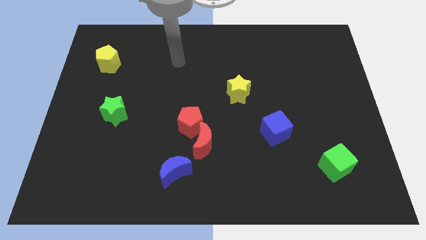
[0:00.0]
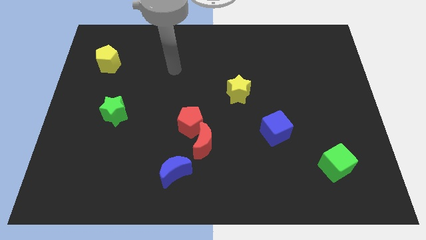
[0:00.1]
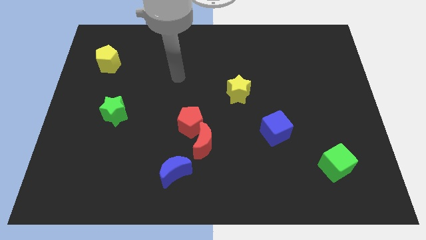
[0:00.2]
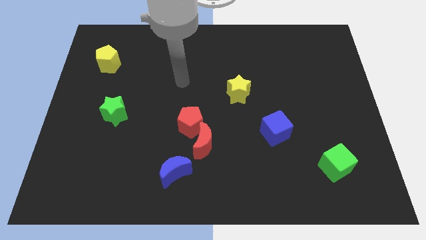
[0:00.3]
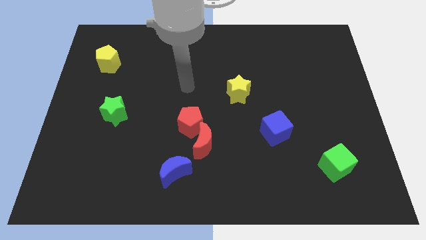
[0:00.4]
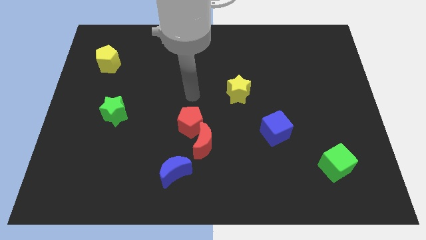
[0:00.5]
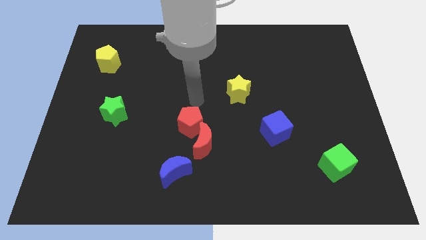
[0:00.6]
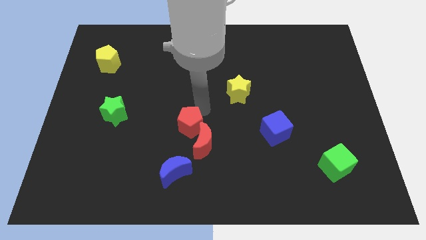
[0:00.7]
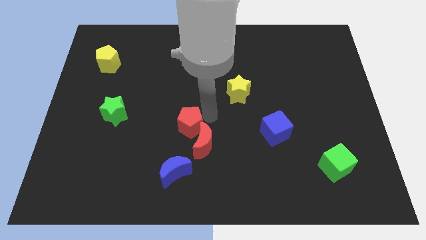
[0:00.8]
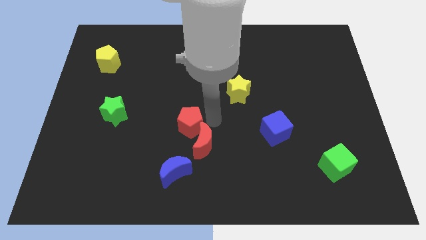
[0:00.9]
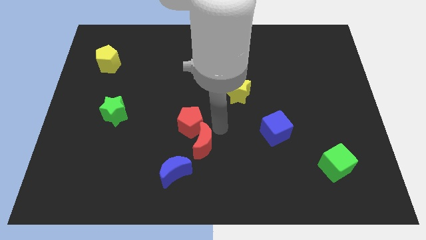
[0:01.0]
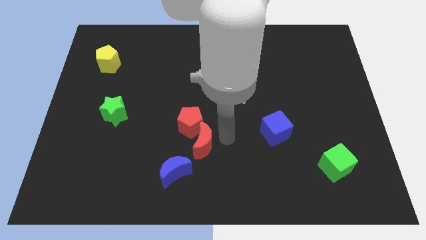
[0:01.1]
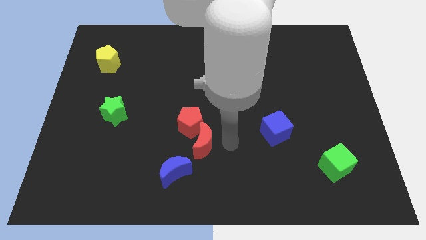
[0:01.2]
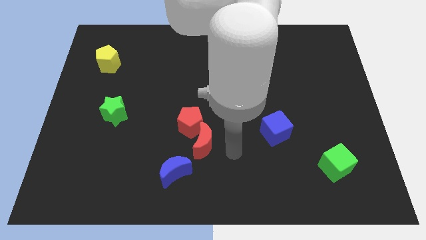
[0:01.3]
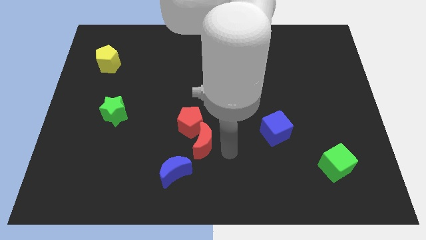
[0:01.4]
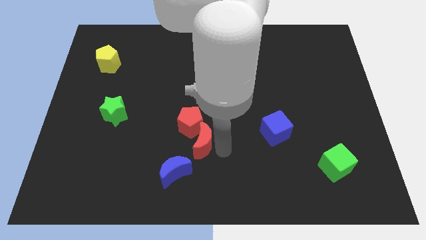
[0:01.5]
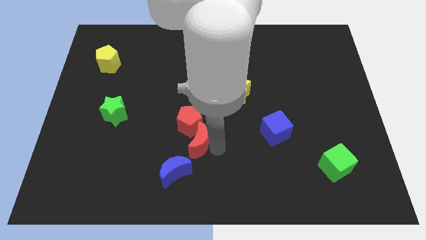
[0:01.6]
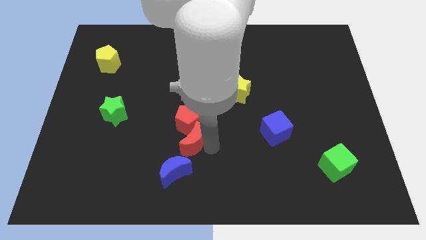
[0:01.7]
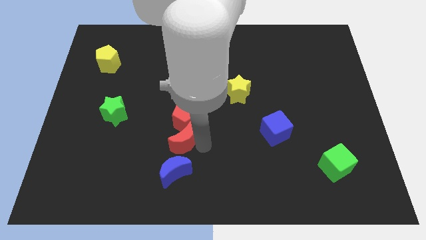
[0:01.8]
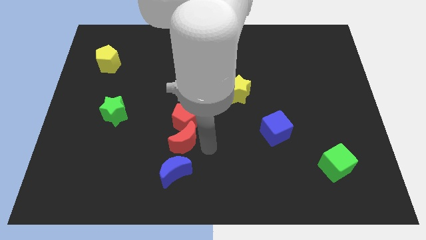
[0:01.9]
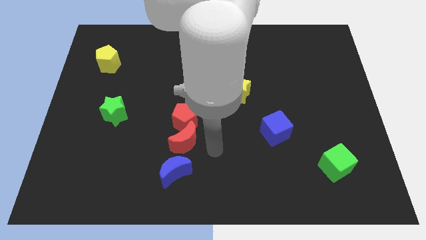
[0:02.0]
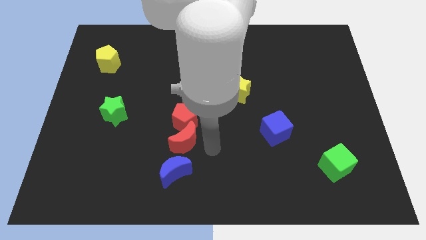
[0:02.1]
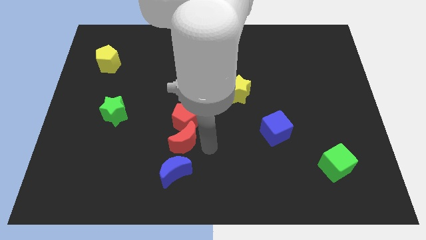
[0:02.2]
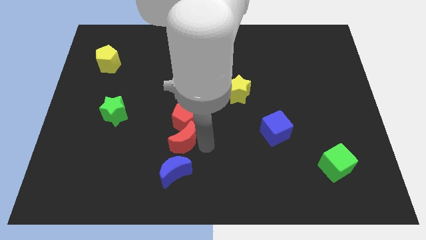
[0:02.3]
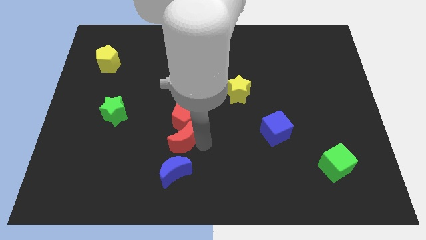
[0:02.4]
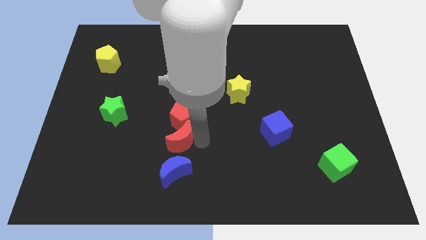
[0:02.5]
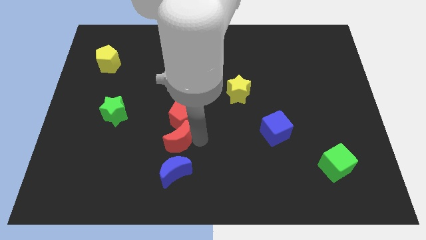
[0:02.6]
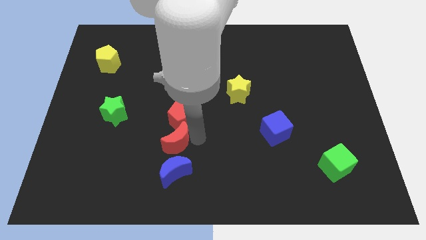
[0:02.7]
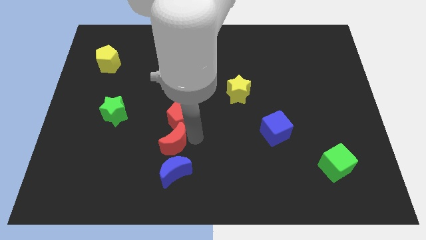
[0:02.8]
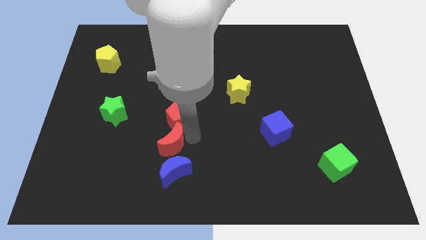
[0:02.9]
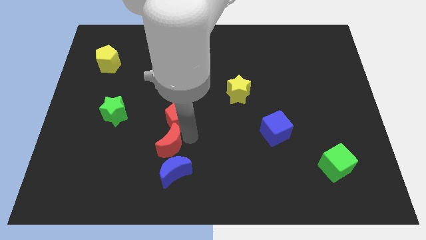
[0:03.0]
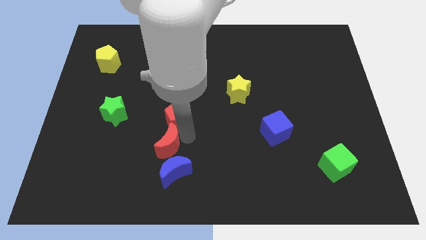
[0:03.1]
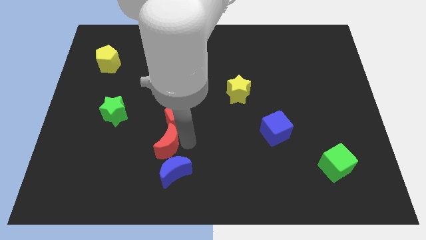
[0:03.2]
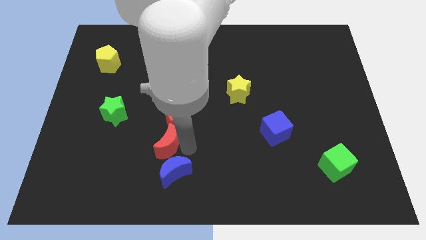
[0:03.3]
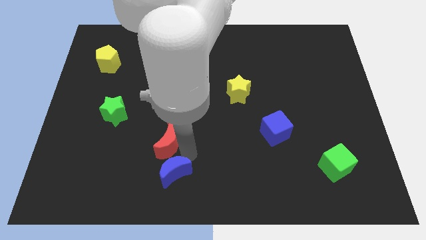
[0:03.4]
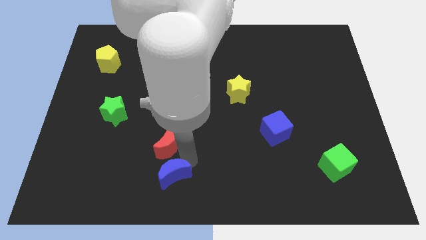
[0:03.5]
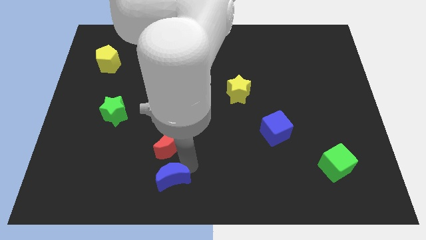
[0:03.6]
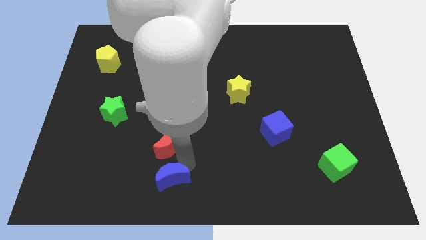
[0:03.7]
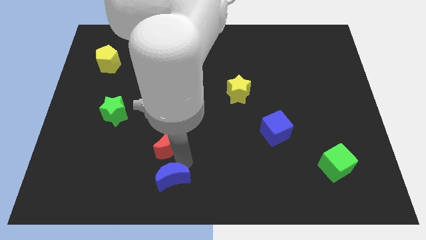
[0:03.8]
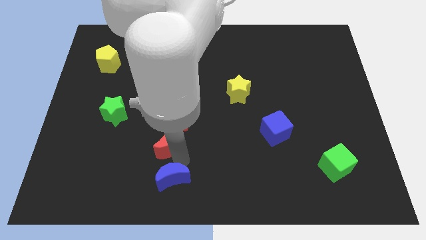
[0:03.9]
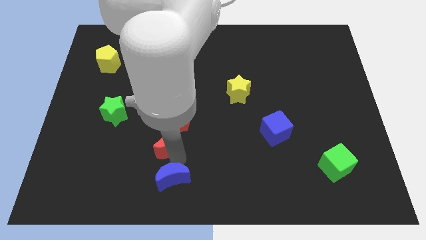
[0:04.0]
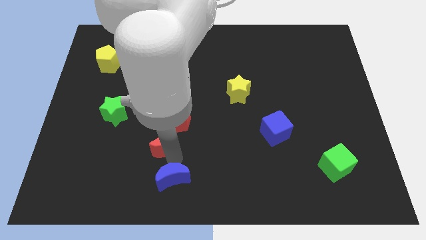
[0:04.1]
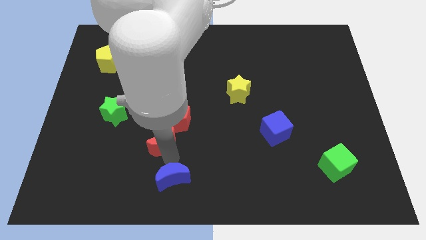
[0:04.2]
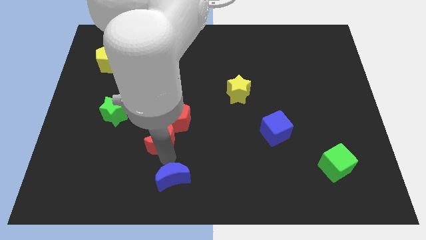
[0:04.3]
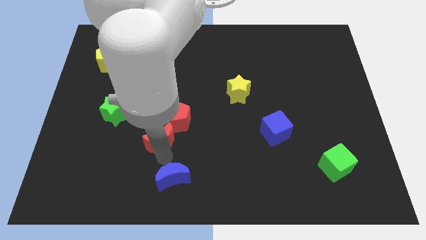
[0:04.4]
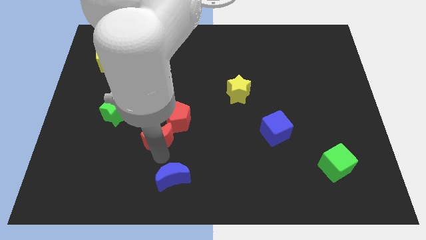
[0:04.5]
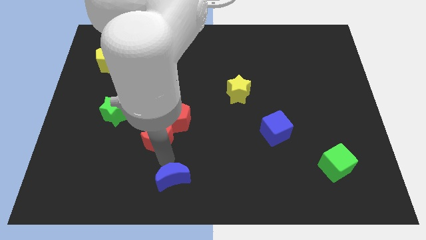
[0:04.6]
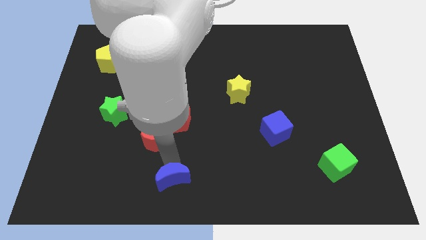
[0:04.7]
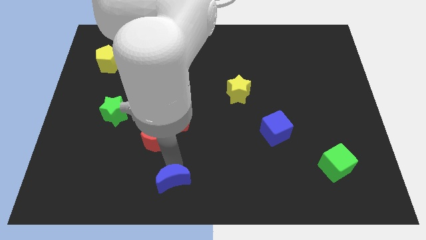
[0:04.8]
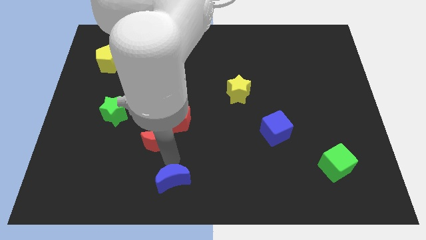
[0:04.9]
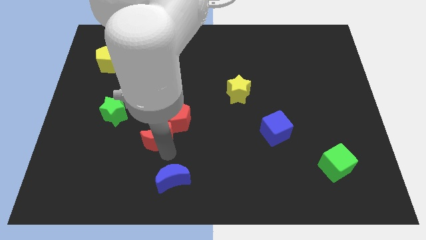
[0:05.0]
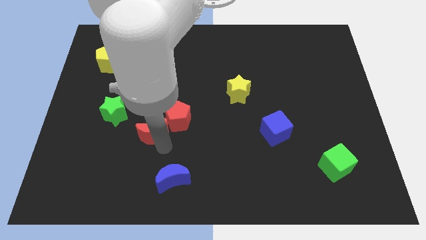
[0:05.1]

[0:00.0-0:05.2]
move the red moon a little bit diagonally upwards and to the left

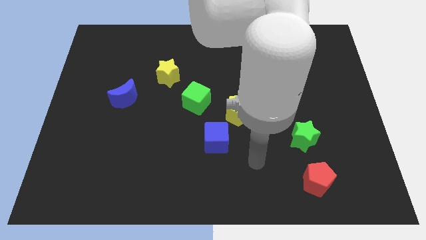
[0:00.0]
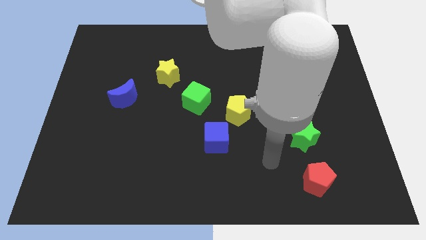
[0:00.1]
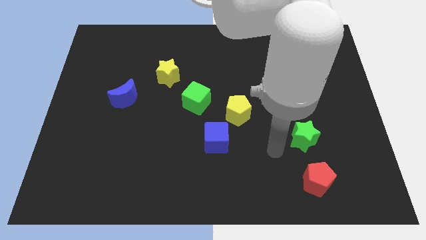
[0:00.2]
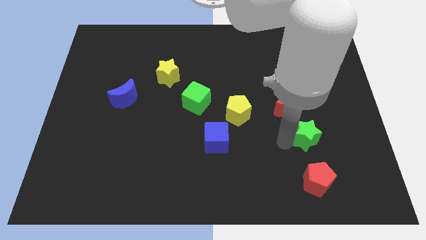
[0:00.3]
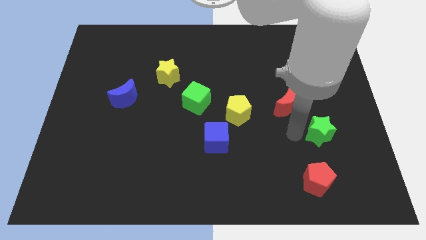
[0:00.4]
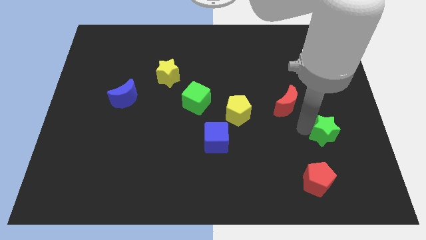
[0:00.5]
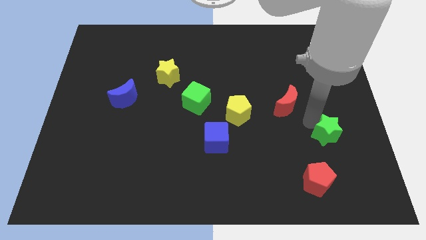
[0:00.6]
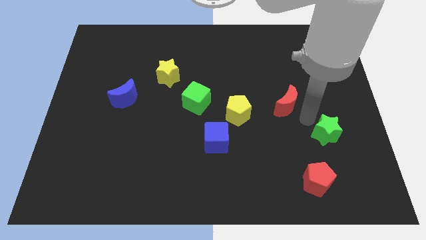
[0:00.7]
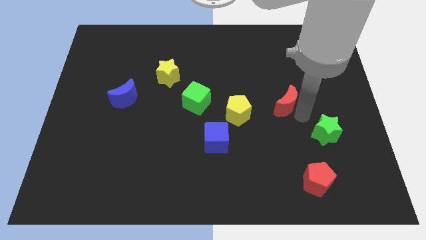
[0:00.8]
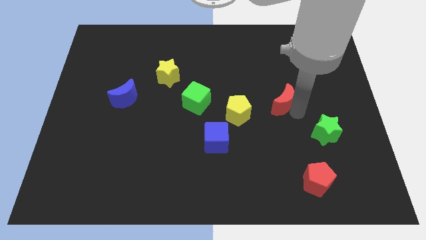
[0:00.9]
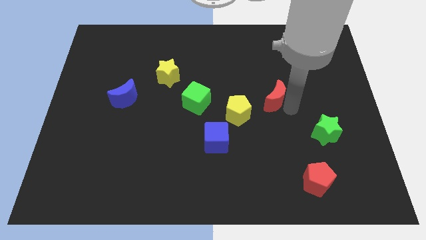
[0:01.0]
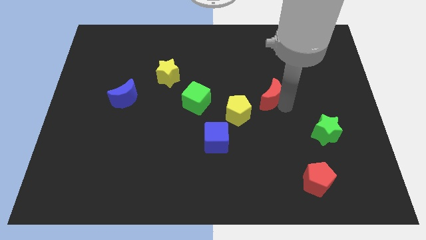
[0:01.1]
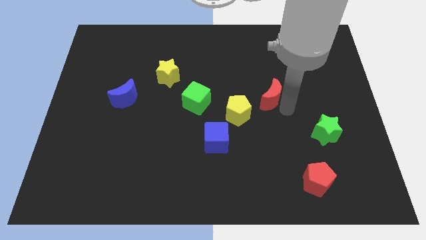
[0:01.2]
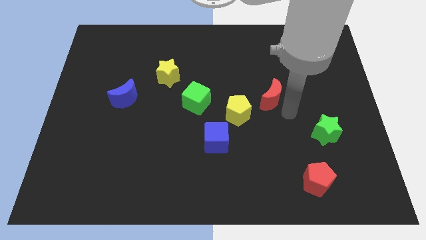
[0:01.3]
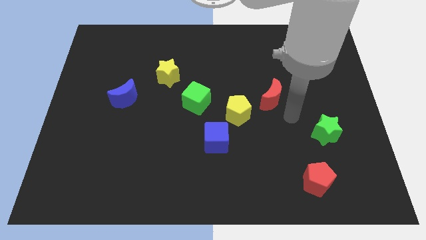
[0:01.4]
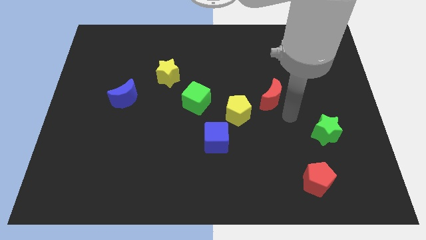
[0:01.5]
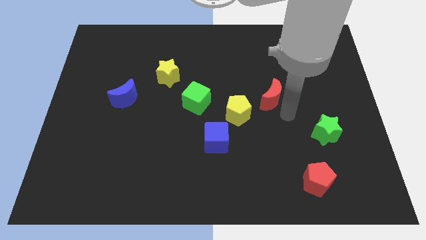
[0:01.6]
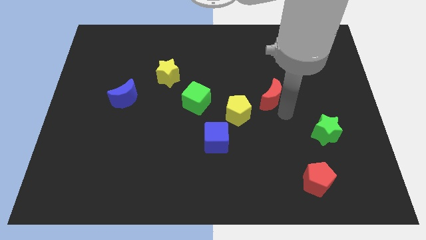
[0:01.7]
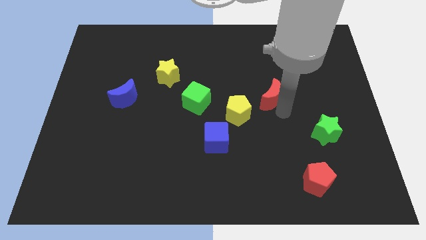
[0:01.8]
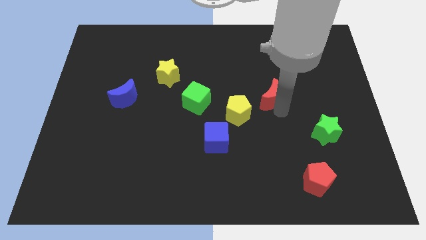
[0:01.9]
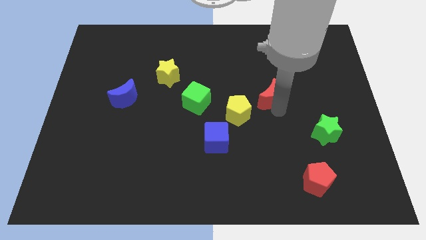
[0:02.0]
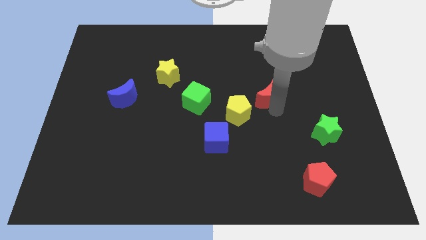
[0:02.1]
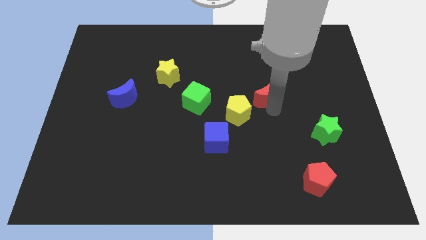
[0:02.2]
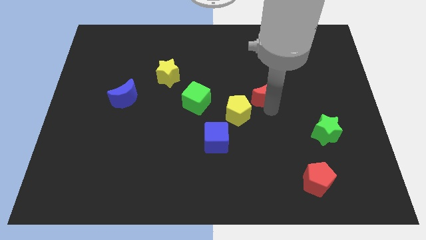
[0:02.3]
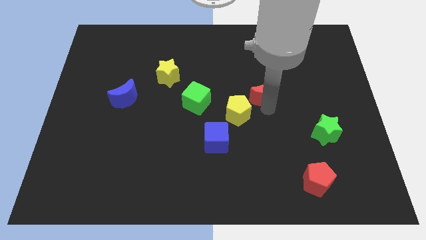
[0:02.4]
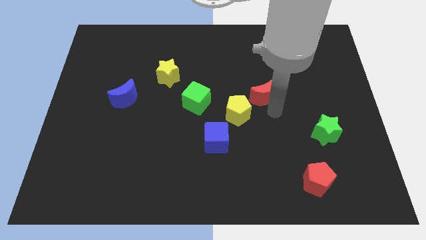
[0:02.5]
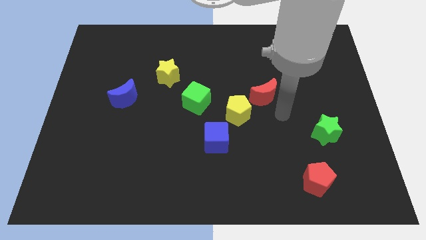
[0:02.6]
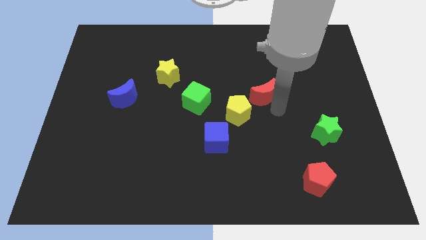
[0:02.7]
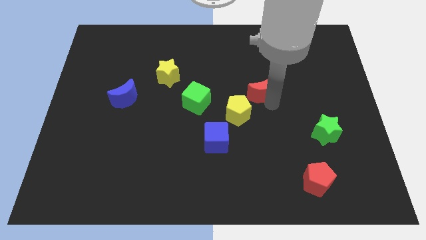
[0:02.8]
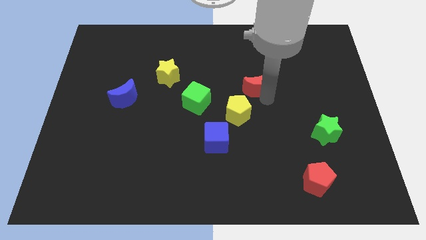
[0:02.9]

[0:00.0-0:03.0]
slide the red moon up and left diagonally a bit
